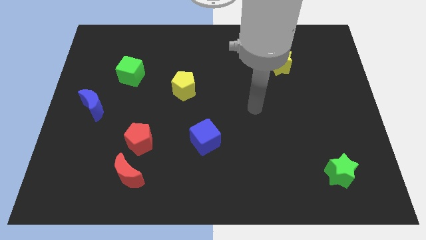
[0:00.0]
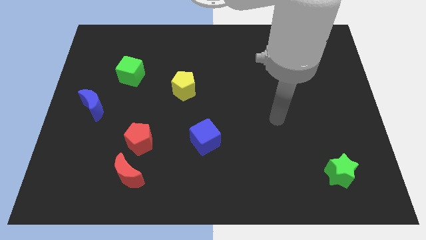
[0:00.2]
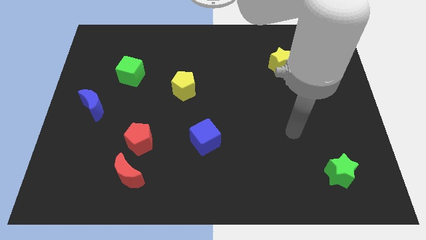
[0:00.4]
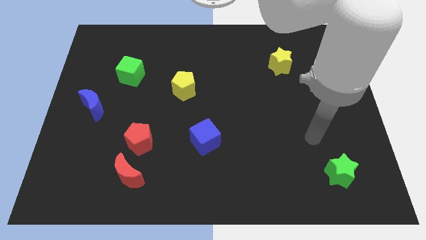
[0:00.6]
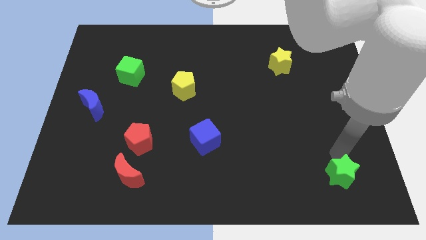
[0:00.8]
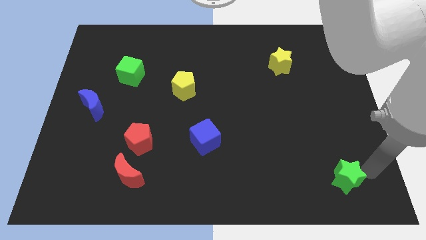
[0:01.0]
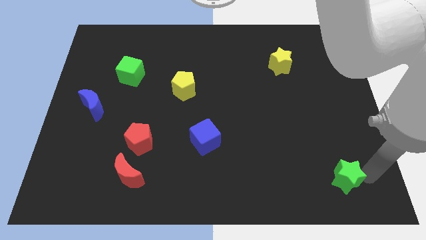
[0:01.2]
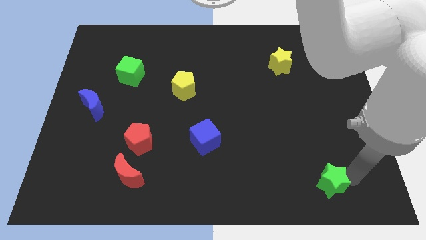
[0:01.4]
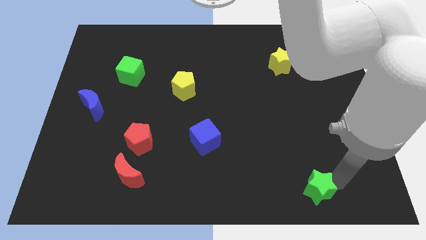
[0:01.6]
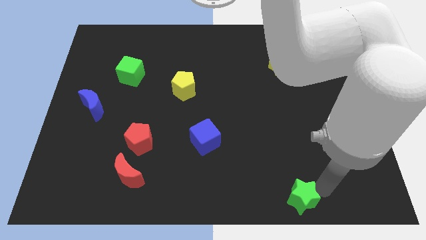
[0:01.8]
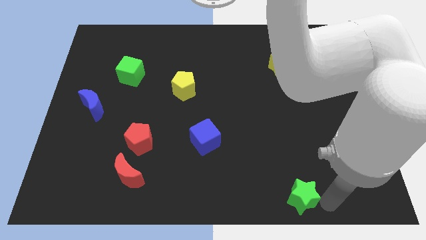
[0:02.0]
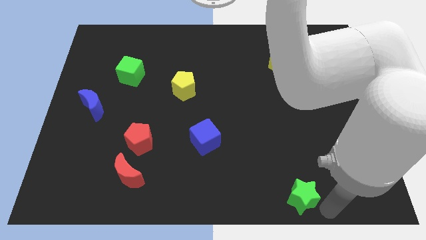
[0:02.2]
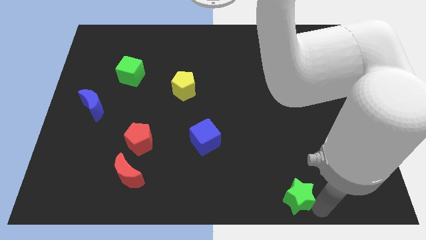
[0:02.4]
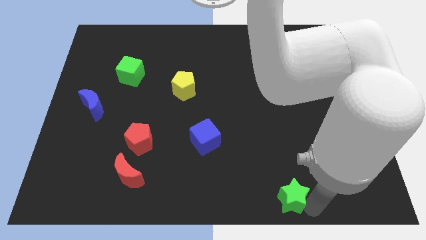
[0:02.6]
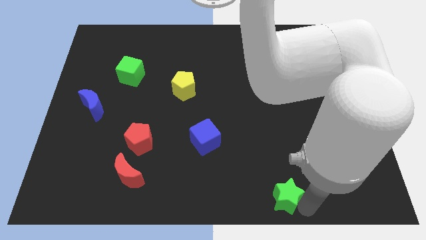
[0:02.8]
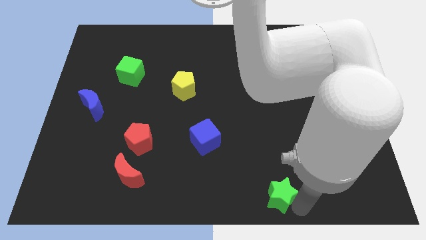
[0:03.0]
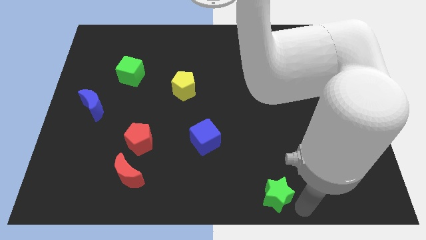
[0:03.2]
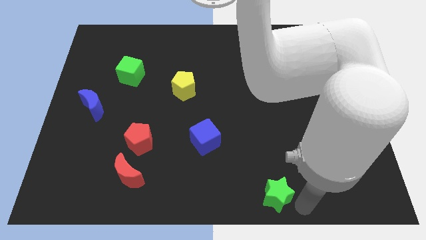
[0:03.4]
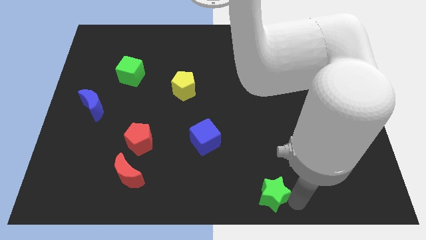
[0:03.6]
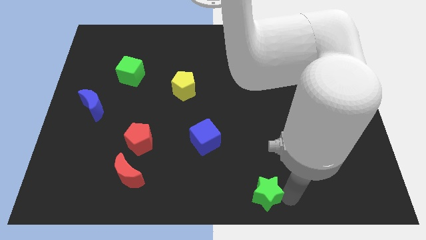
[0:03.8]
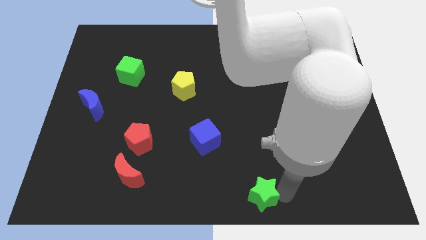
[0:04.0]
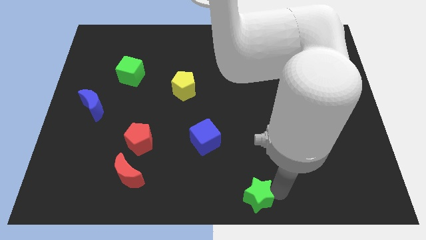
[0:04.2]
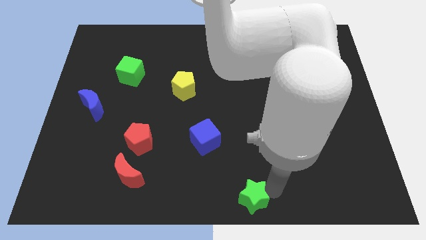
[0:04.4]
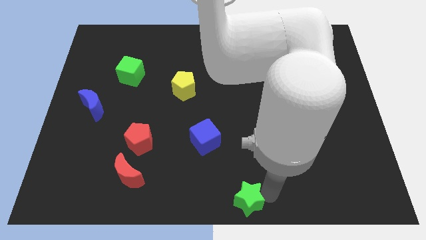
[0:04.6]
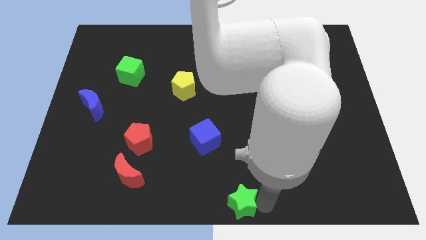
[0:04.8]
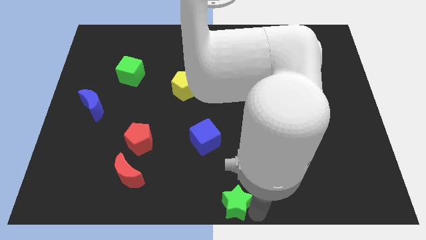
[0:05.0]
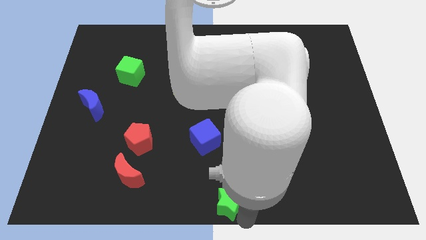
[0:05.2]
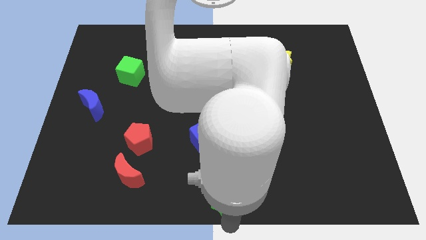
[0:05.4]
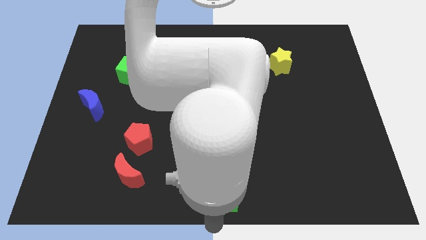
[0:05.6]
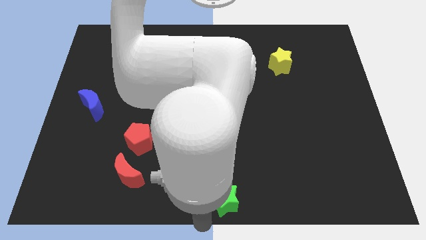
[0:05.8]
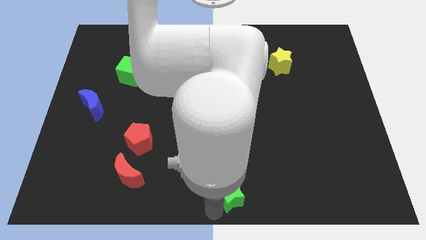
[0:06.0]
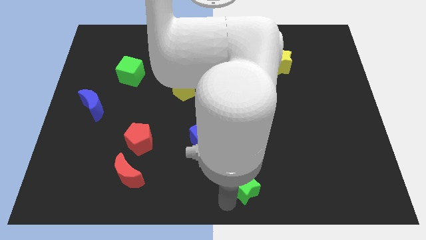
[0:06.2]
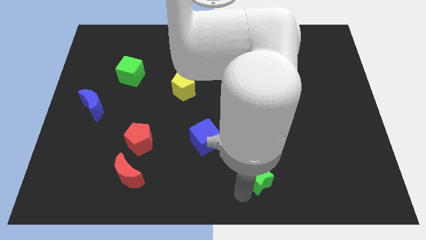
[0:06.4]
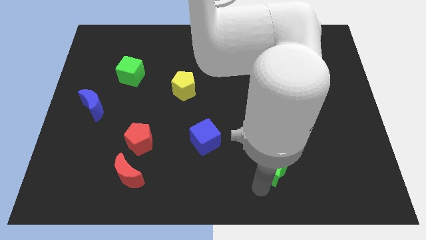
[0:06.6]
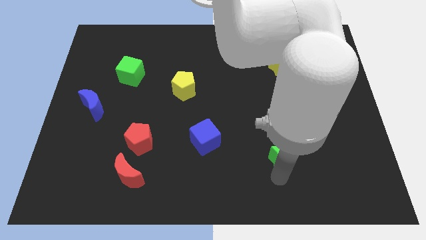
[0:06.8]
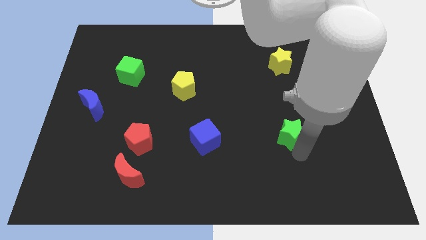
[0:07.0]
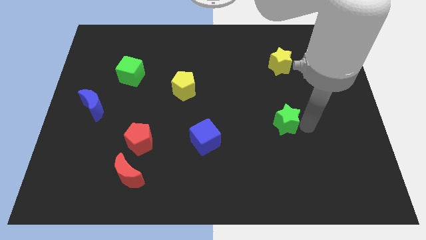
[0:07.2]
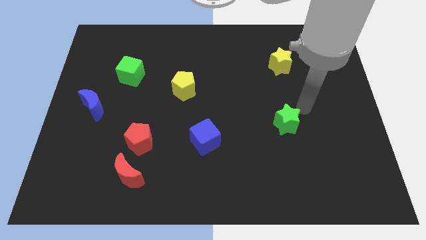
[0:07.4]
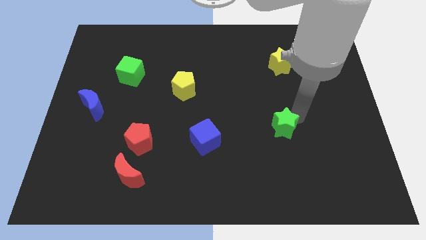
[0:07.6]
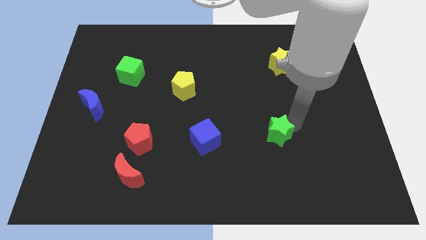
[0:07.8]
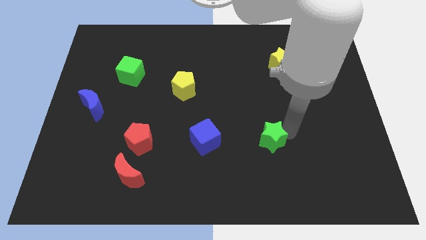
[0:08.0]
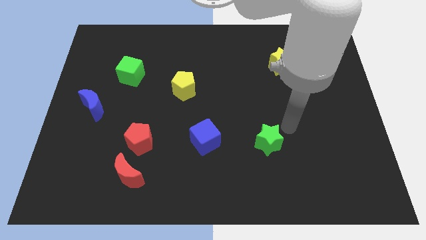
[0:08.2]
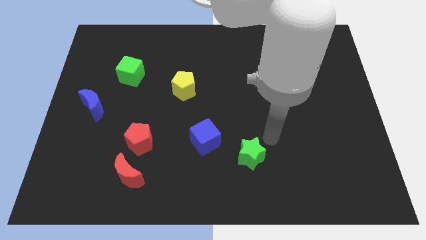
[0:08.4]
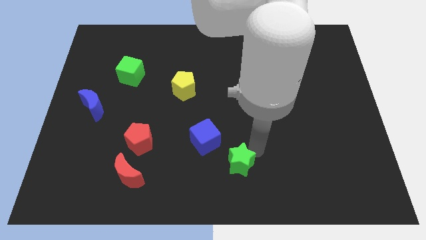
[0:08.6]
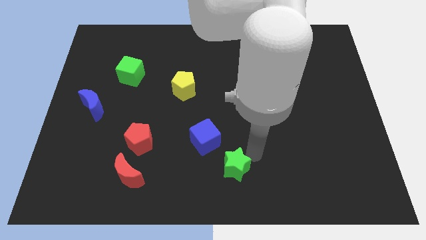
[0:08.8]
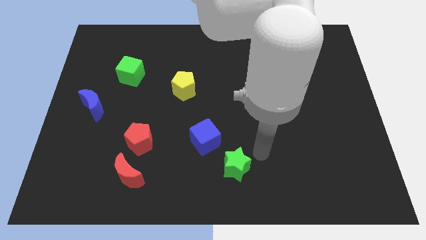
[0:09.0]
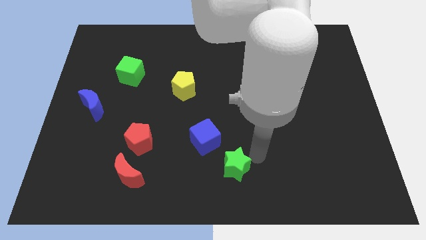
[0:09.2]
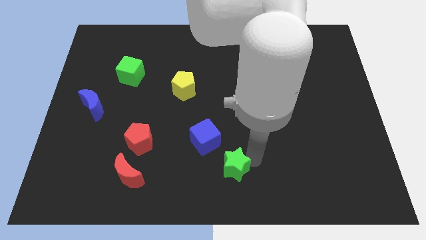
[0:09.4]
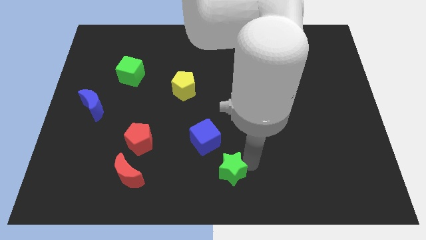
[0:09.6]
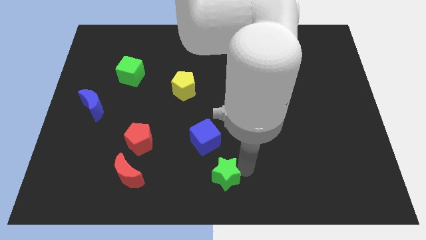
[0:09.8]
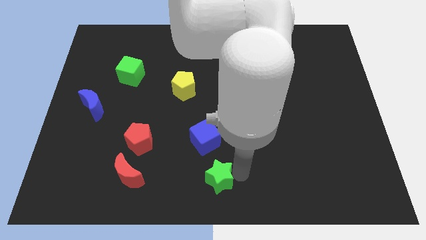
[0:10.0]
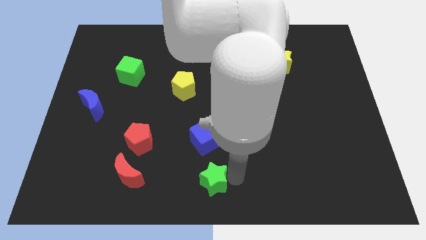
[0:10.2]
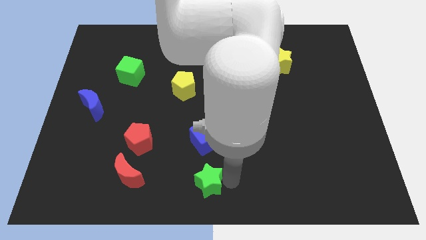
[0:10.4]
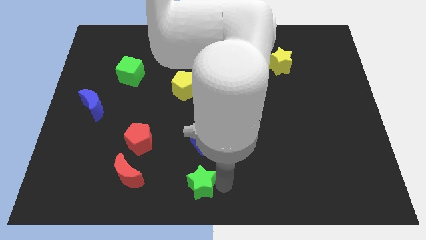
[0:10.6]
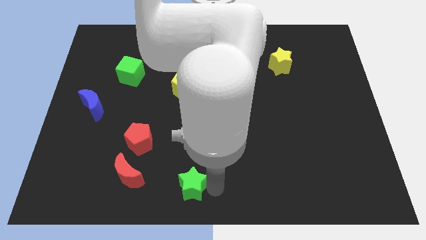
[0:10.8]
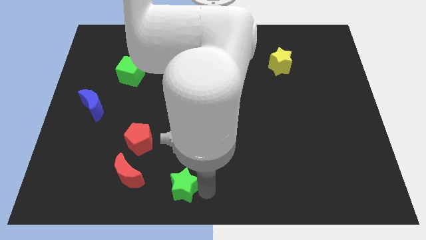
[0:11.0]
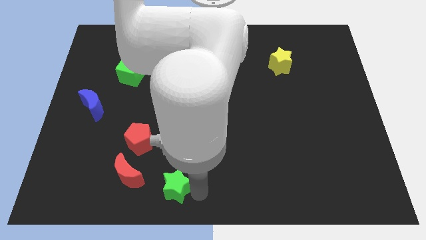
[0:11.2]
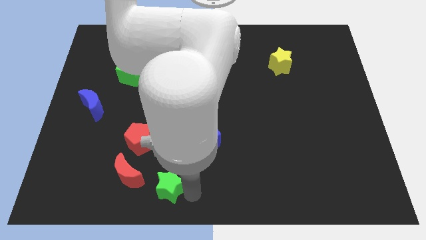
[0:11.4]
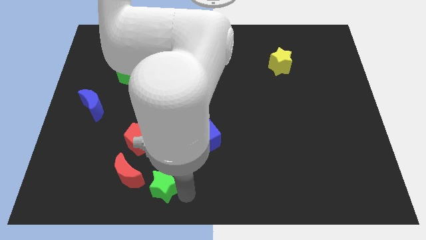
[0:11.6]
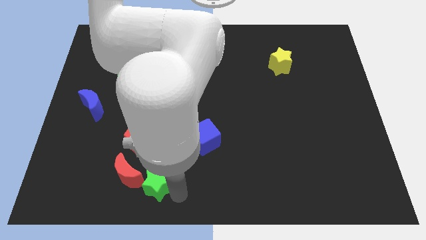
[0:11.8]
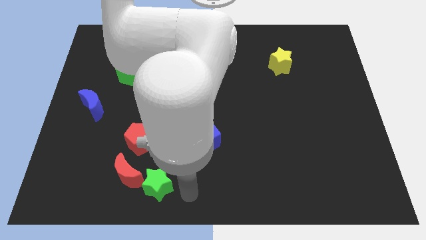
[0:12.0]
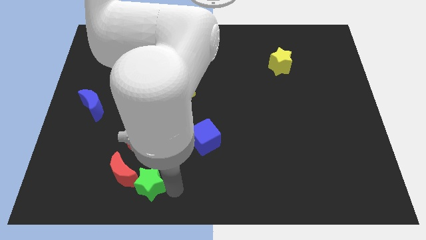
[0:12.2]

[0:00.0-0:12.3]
slide the green star next to the red moon
